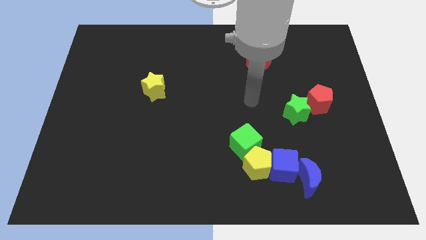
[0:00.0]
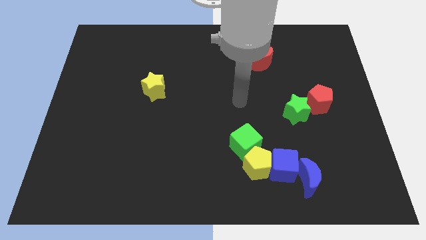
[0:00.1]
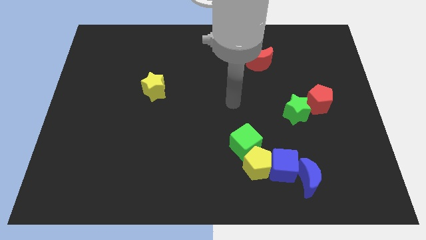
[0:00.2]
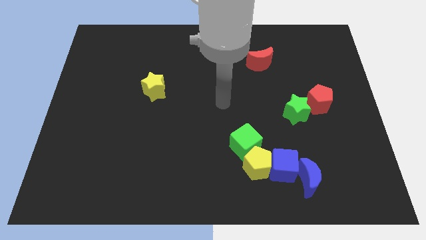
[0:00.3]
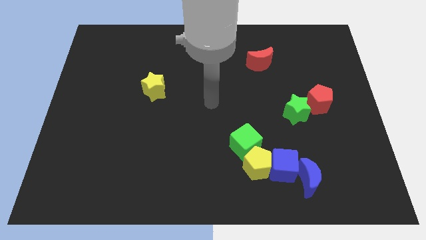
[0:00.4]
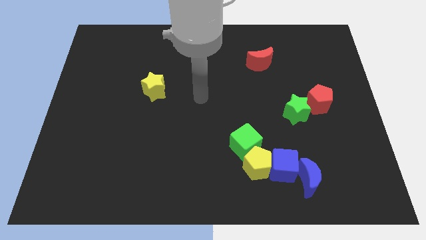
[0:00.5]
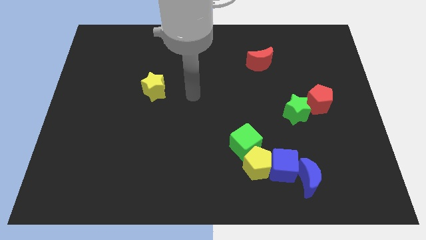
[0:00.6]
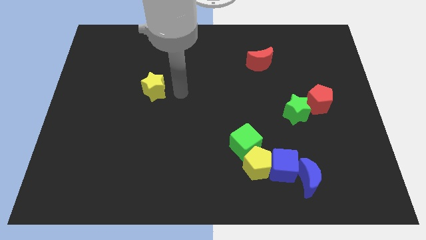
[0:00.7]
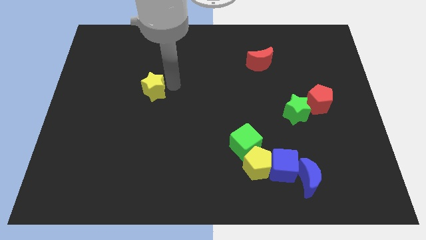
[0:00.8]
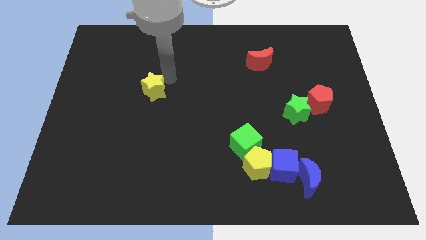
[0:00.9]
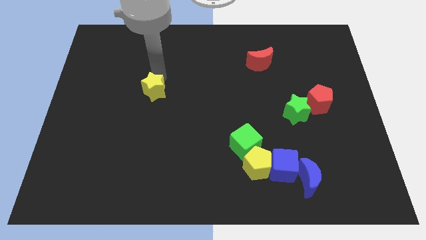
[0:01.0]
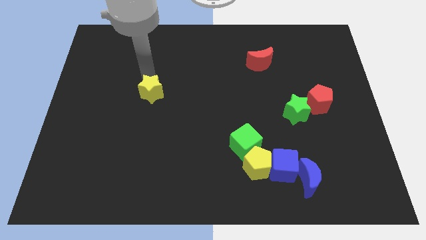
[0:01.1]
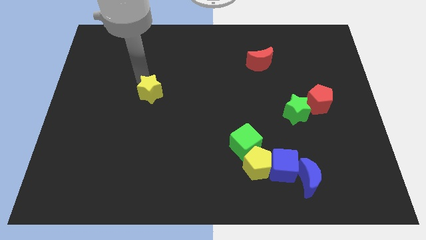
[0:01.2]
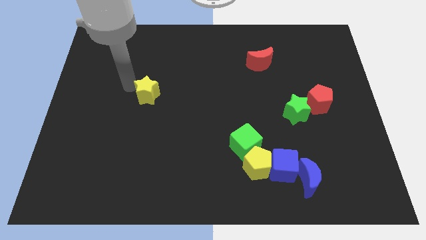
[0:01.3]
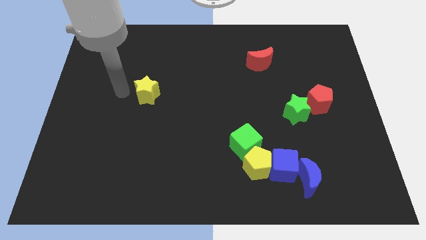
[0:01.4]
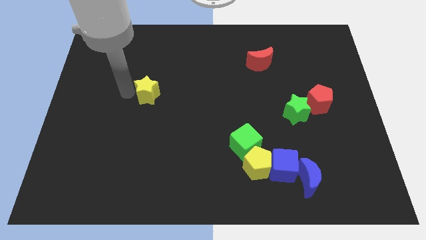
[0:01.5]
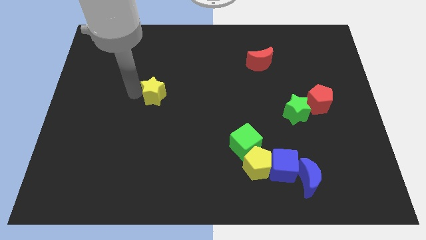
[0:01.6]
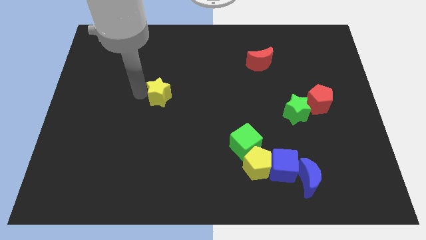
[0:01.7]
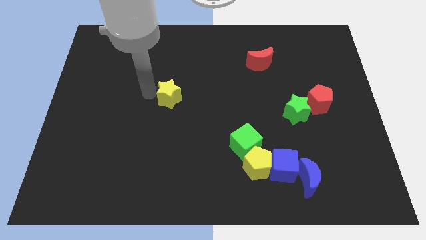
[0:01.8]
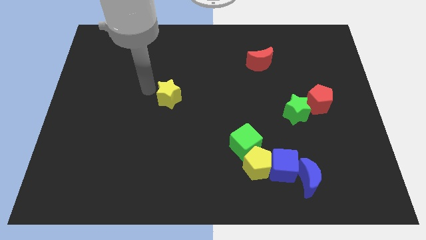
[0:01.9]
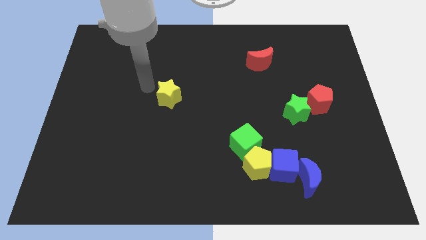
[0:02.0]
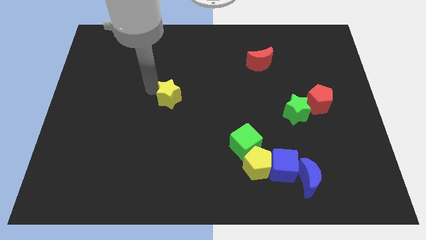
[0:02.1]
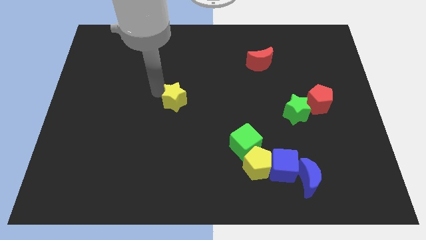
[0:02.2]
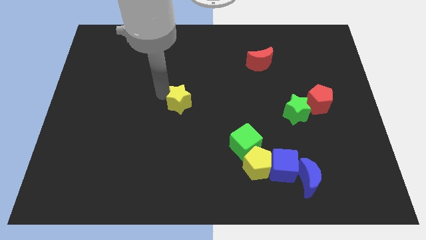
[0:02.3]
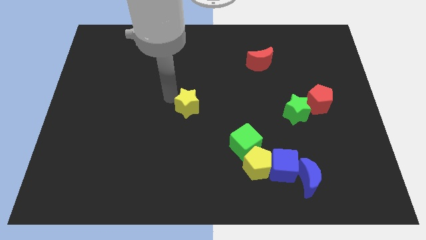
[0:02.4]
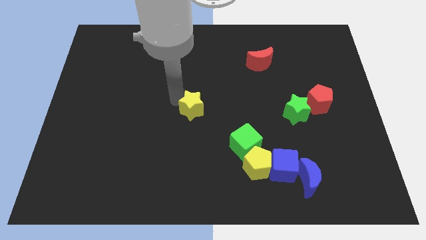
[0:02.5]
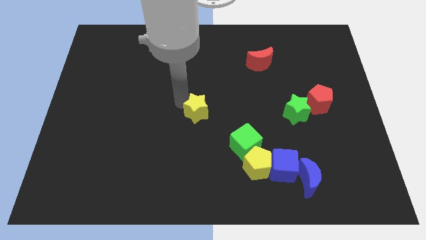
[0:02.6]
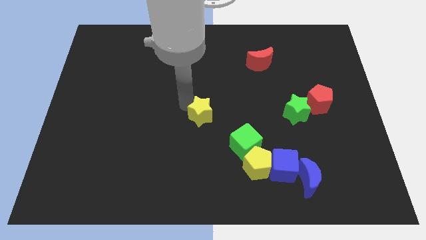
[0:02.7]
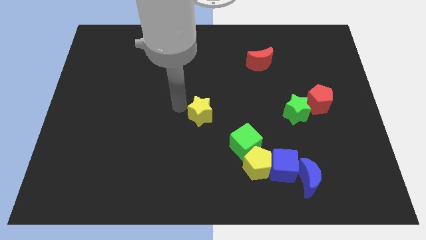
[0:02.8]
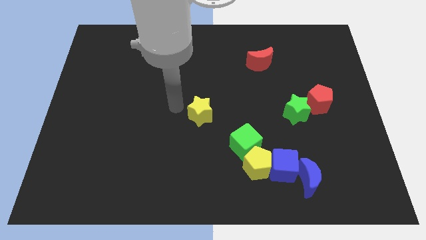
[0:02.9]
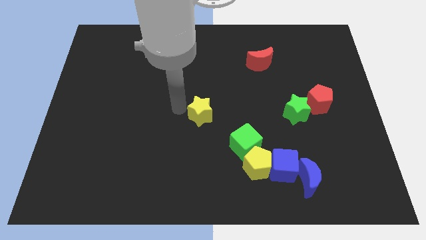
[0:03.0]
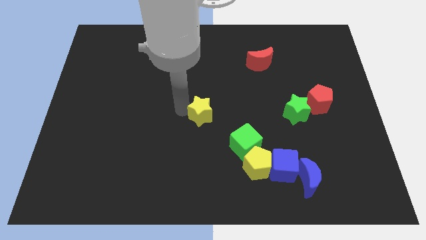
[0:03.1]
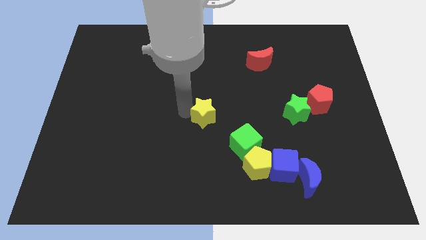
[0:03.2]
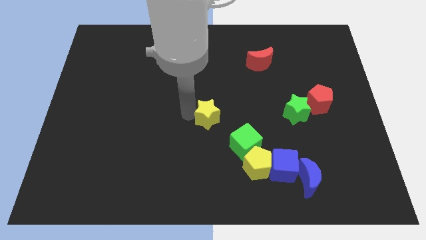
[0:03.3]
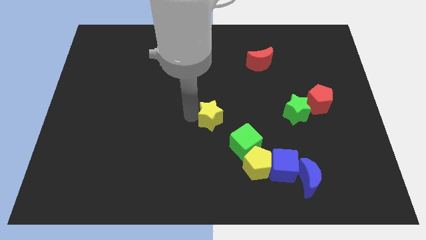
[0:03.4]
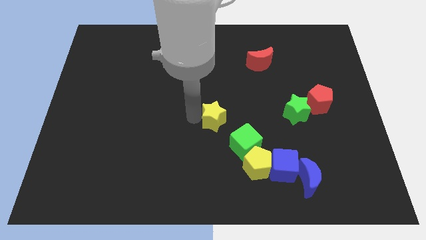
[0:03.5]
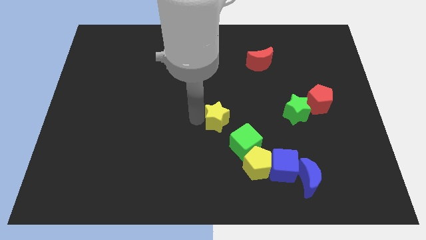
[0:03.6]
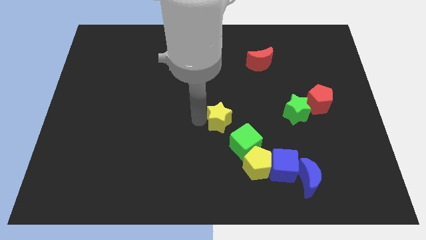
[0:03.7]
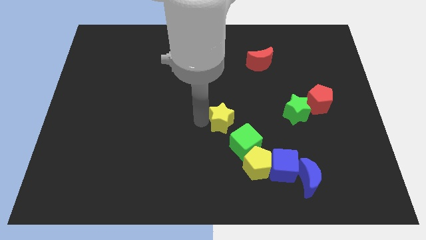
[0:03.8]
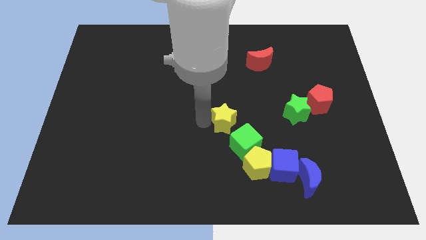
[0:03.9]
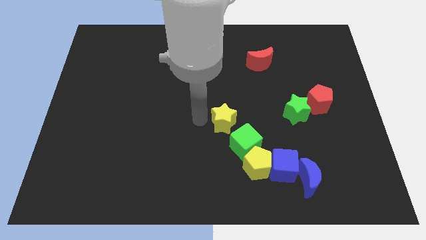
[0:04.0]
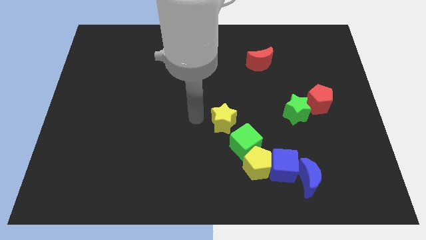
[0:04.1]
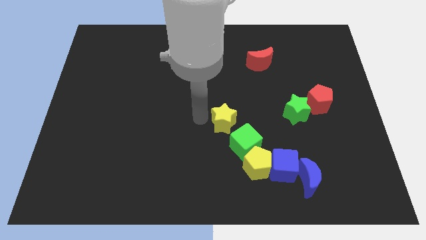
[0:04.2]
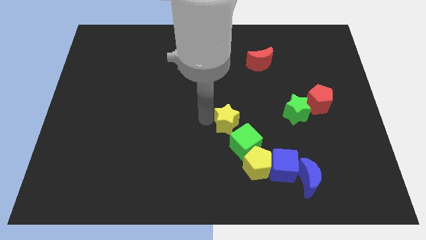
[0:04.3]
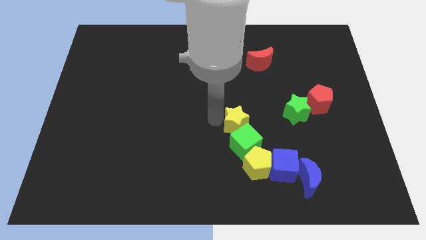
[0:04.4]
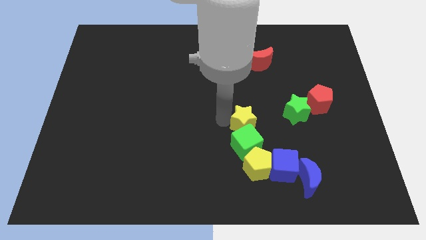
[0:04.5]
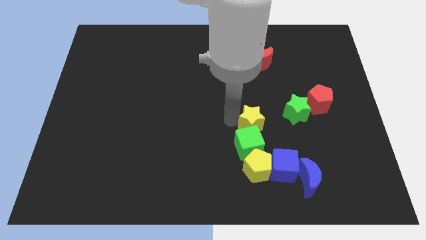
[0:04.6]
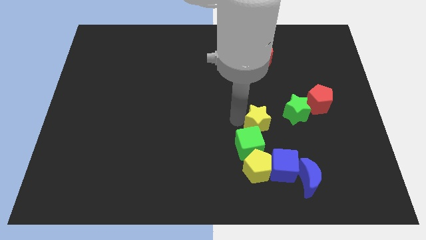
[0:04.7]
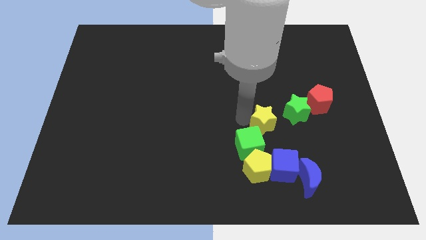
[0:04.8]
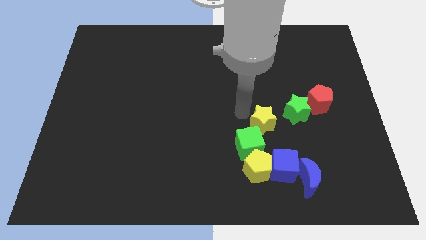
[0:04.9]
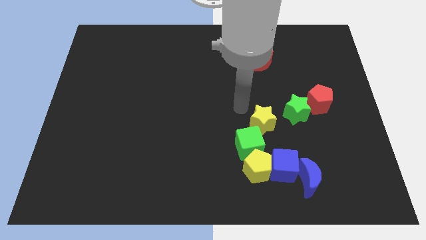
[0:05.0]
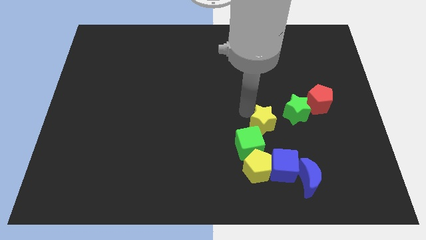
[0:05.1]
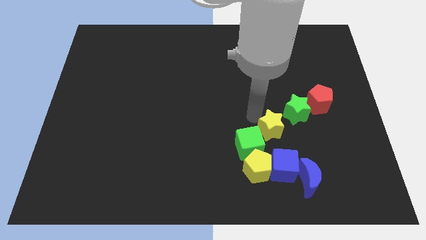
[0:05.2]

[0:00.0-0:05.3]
push the yellow star just right of the green cube

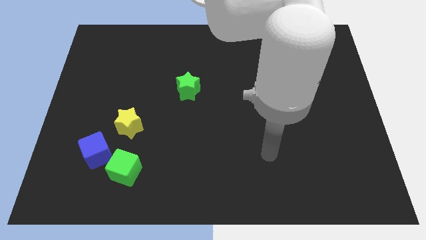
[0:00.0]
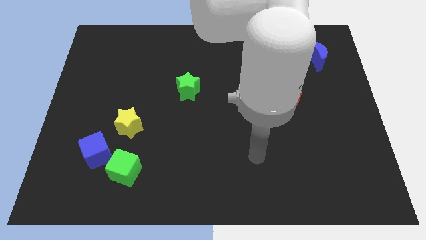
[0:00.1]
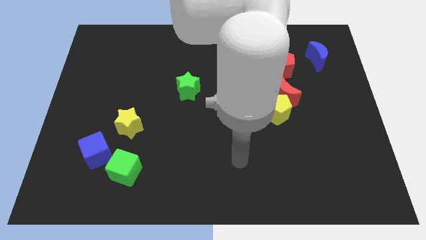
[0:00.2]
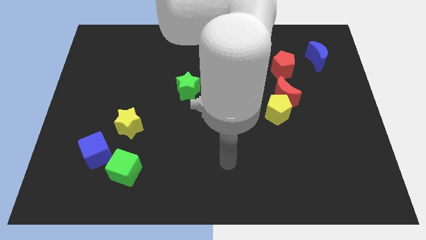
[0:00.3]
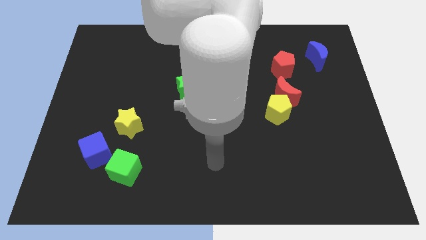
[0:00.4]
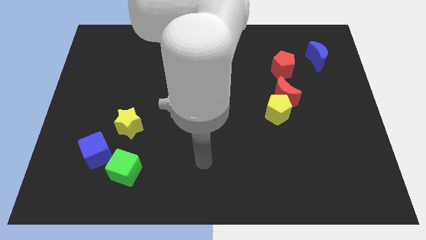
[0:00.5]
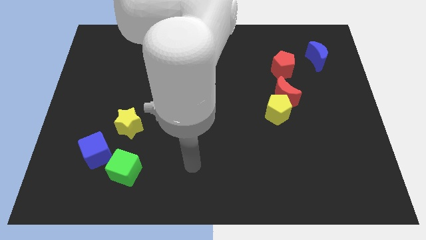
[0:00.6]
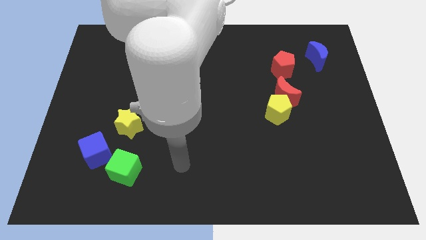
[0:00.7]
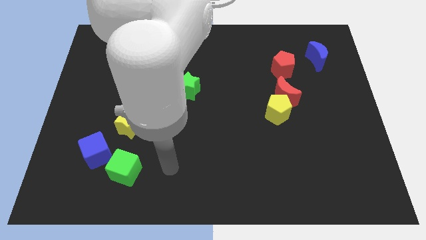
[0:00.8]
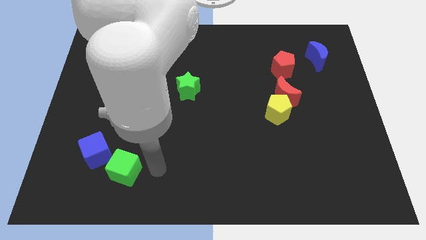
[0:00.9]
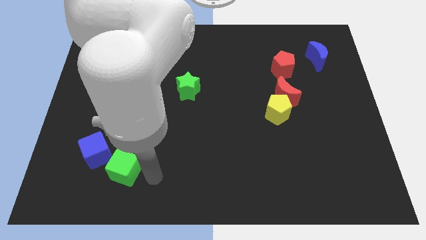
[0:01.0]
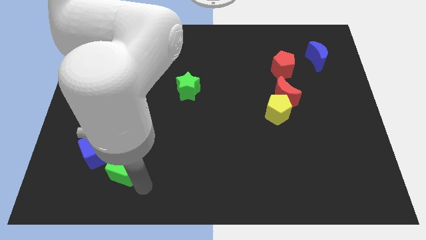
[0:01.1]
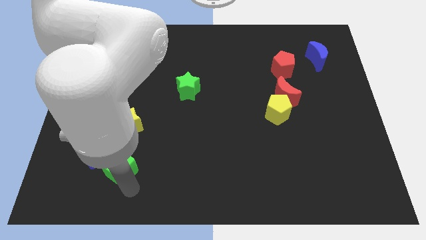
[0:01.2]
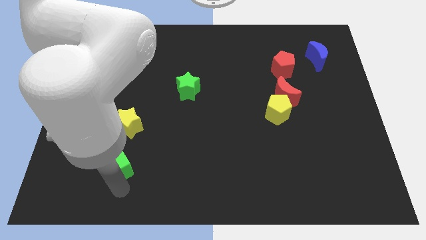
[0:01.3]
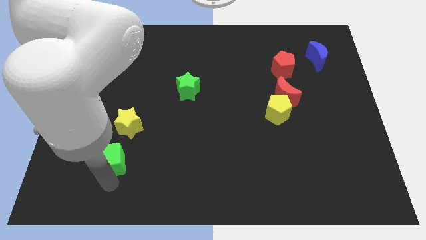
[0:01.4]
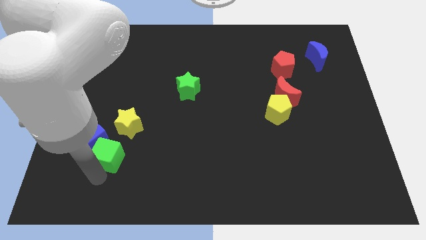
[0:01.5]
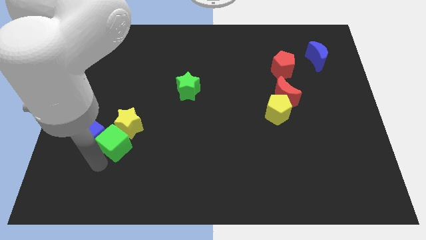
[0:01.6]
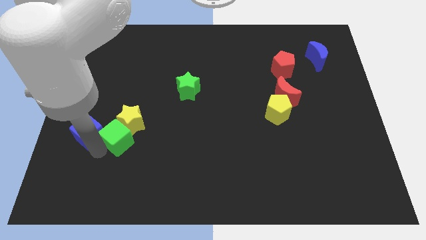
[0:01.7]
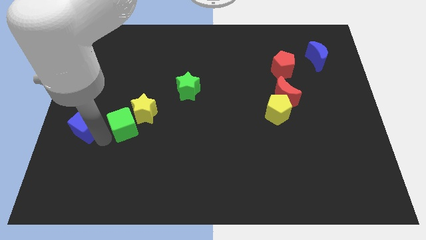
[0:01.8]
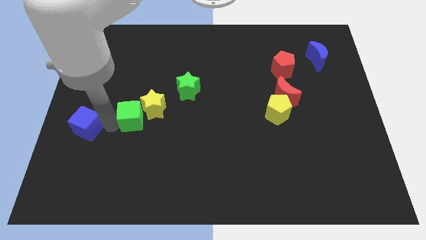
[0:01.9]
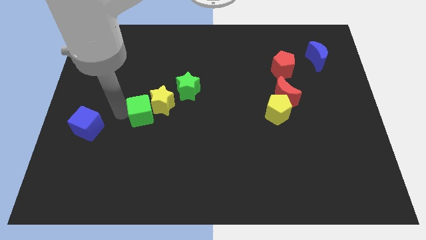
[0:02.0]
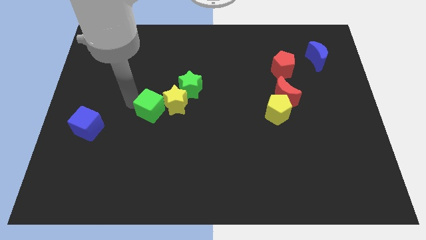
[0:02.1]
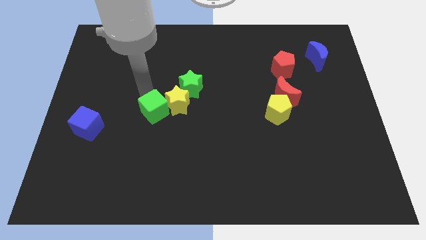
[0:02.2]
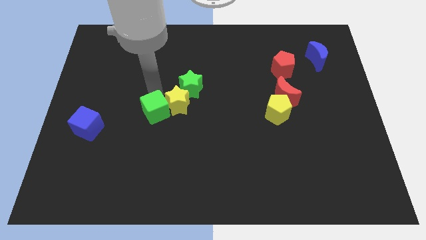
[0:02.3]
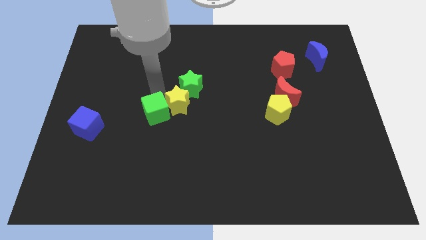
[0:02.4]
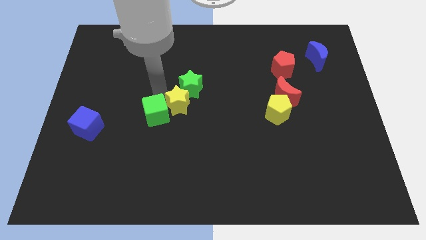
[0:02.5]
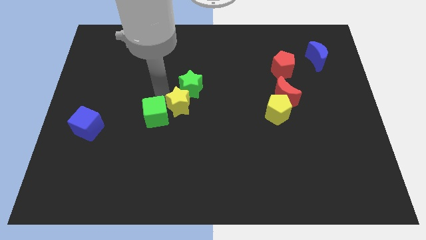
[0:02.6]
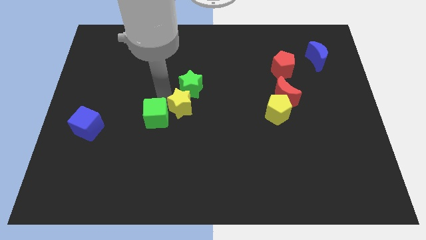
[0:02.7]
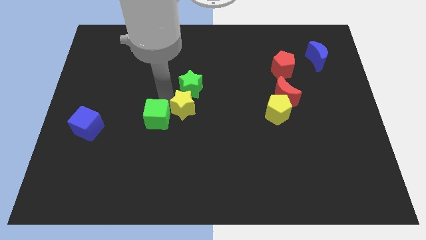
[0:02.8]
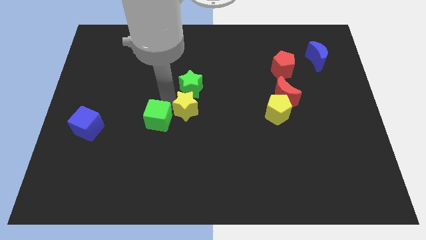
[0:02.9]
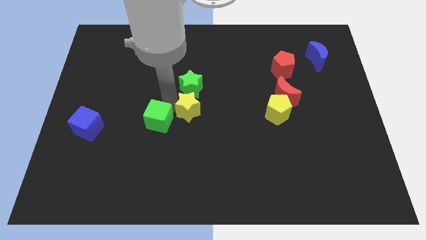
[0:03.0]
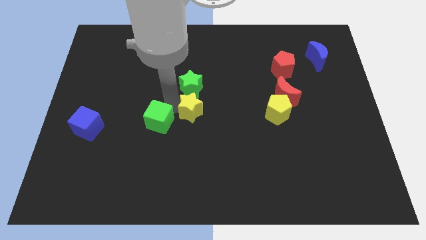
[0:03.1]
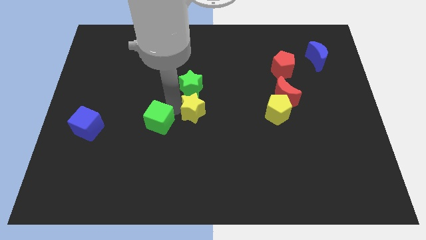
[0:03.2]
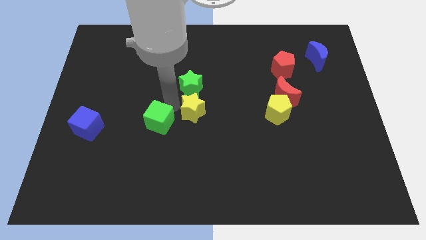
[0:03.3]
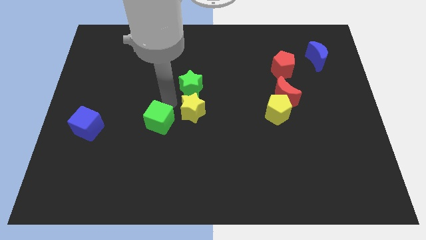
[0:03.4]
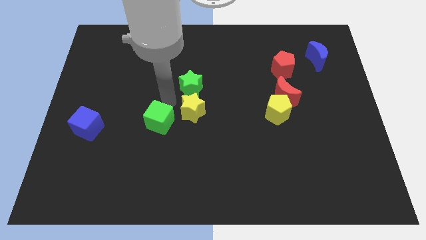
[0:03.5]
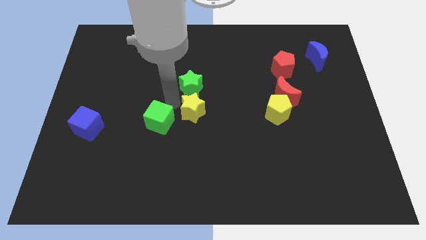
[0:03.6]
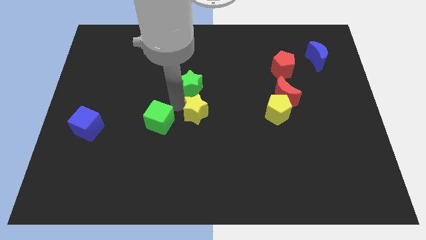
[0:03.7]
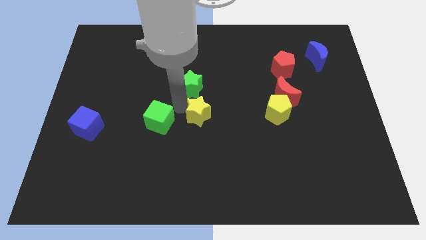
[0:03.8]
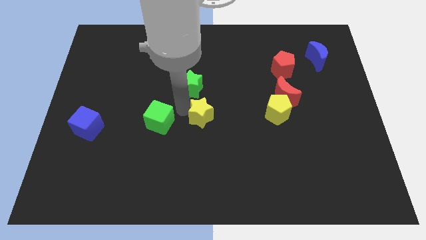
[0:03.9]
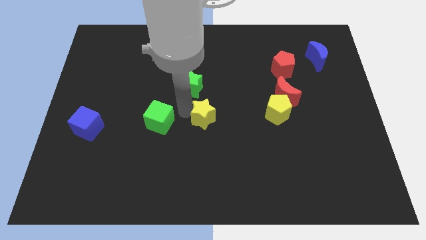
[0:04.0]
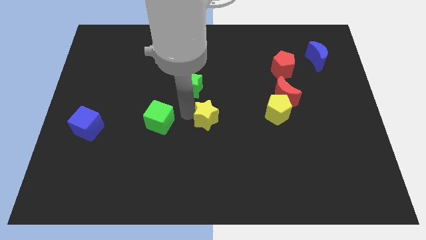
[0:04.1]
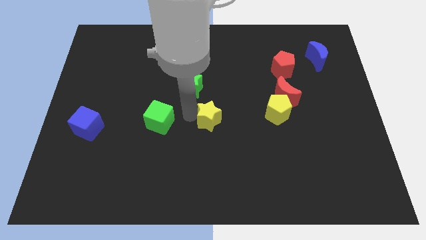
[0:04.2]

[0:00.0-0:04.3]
move the yellow star to the left side of the yellow pentagon
